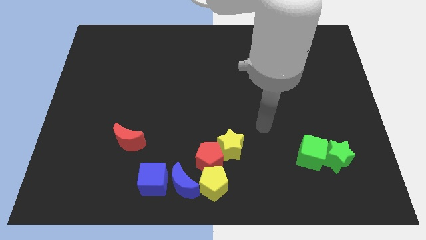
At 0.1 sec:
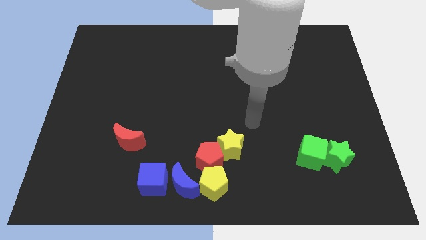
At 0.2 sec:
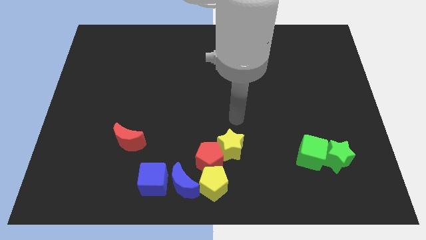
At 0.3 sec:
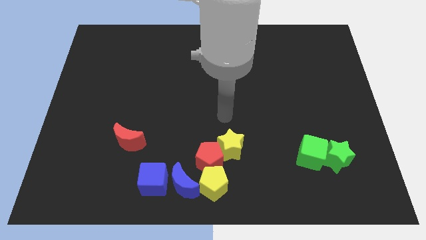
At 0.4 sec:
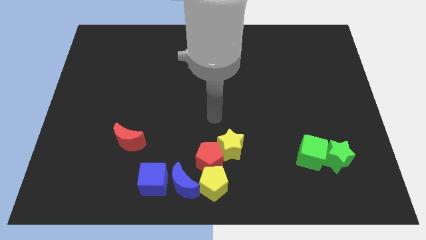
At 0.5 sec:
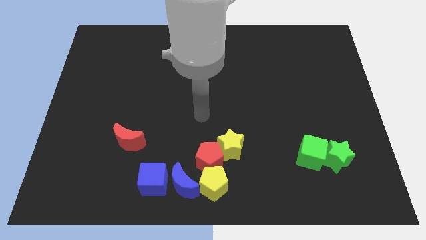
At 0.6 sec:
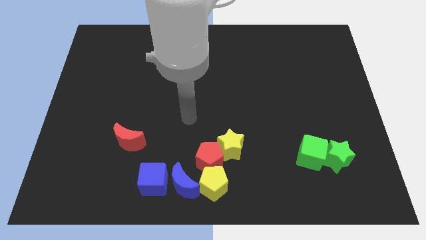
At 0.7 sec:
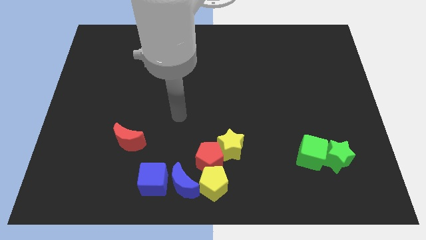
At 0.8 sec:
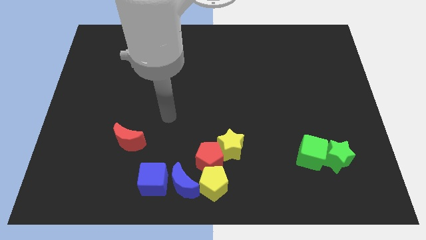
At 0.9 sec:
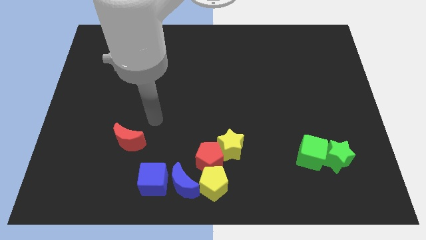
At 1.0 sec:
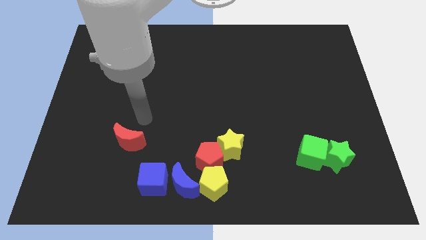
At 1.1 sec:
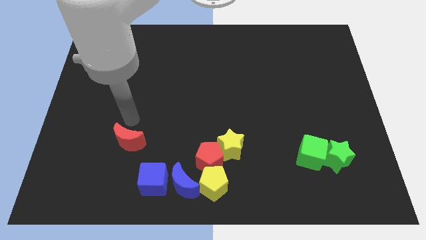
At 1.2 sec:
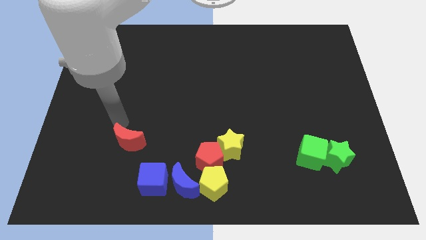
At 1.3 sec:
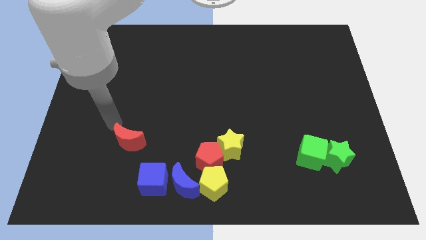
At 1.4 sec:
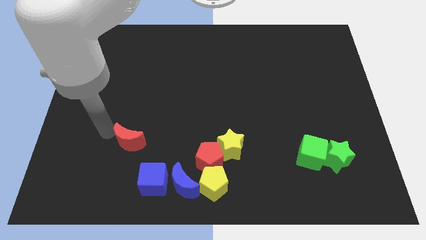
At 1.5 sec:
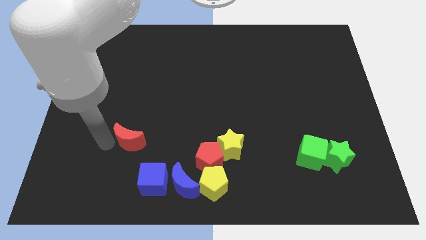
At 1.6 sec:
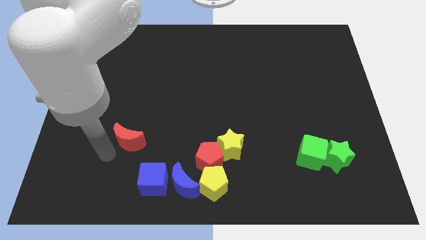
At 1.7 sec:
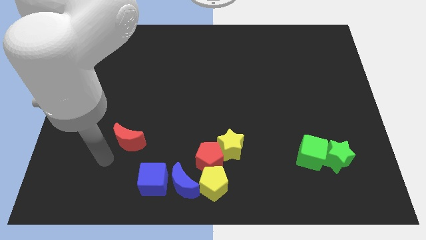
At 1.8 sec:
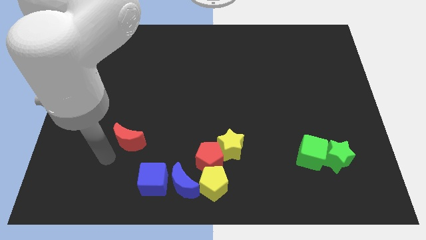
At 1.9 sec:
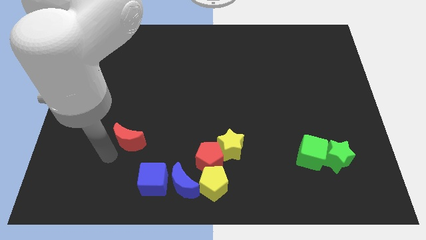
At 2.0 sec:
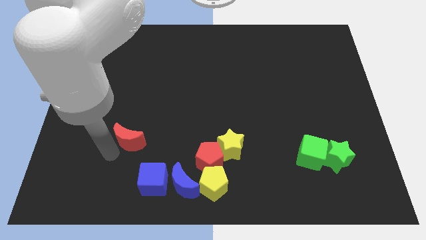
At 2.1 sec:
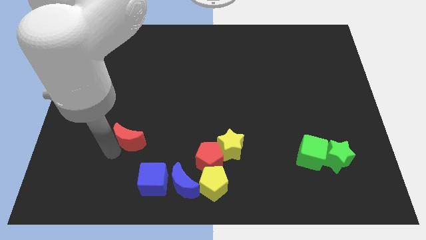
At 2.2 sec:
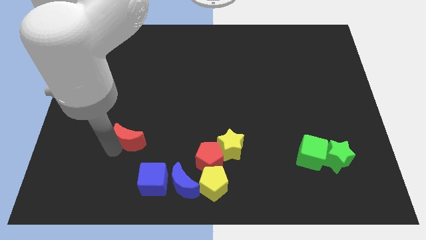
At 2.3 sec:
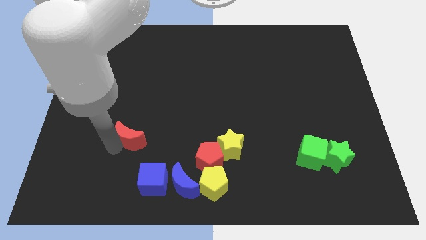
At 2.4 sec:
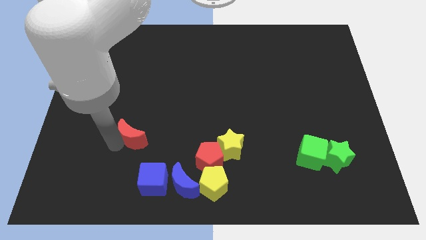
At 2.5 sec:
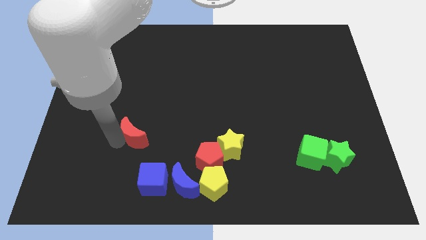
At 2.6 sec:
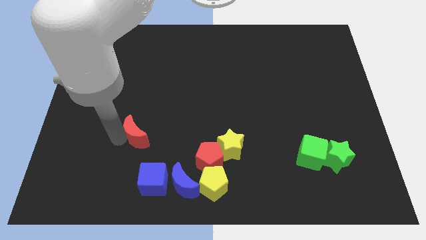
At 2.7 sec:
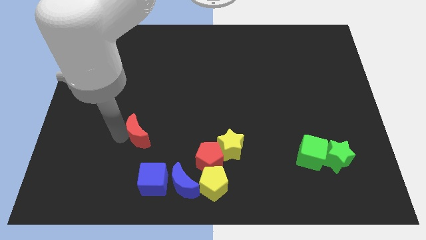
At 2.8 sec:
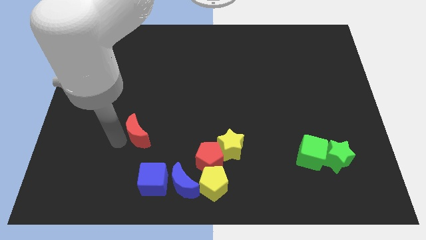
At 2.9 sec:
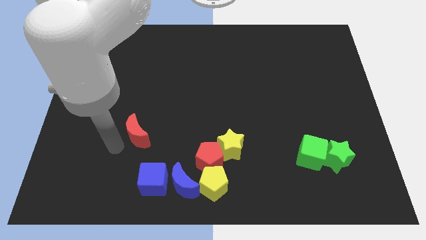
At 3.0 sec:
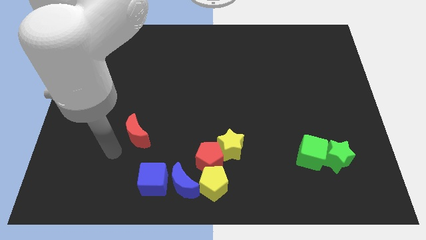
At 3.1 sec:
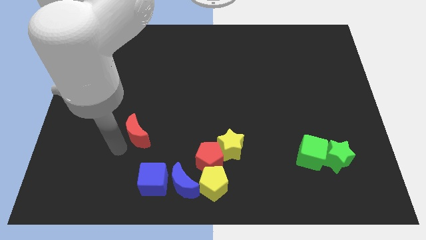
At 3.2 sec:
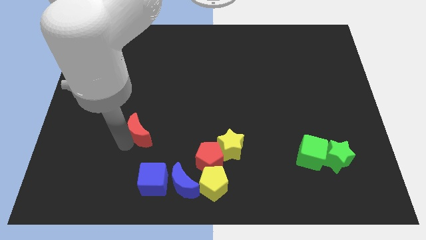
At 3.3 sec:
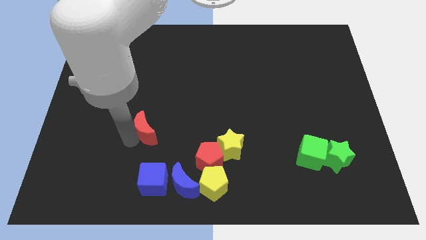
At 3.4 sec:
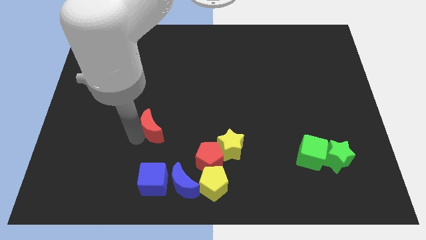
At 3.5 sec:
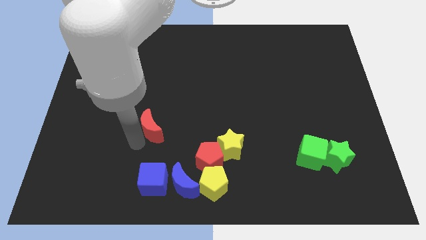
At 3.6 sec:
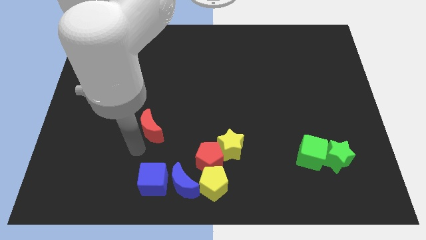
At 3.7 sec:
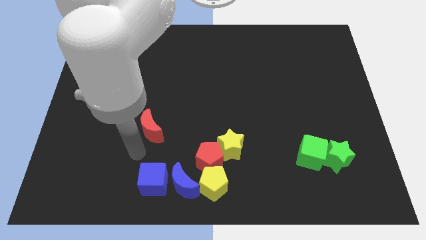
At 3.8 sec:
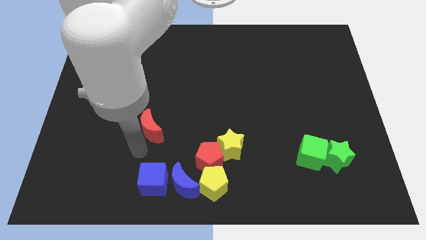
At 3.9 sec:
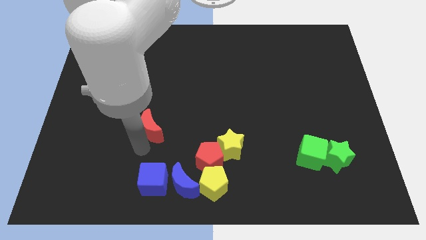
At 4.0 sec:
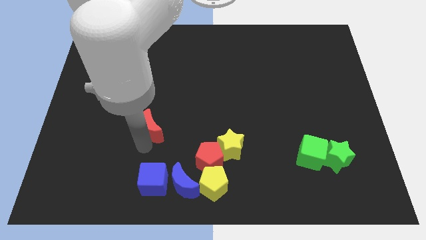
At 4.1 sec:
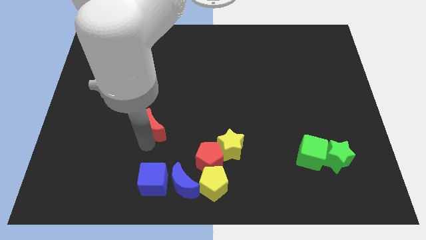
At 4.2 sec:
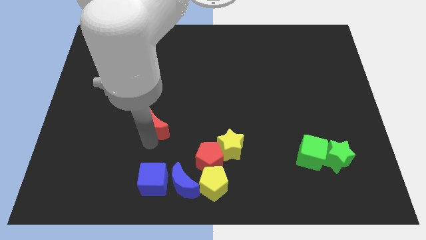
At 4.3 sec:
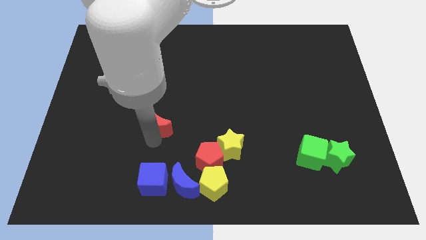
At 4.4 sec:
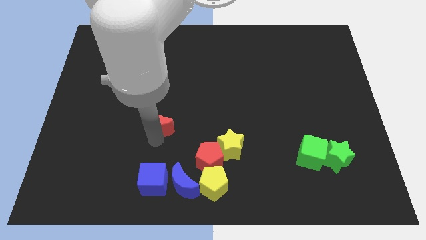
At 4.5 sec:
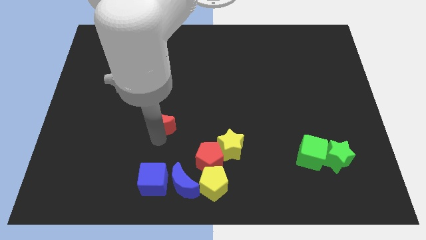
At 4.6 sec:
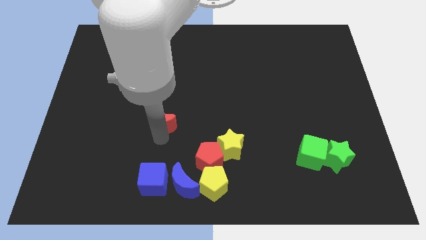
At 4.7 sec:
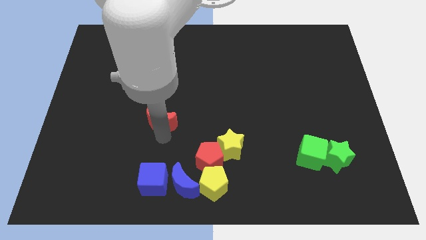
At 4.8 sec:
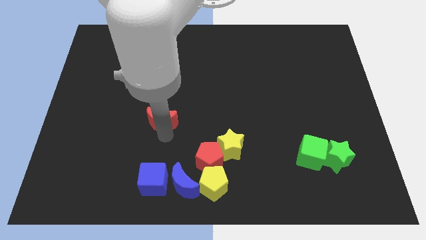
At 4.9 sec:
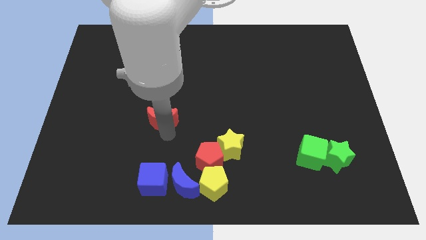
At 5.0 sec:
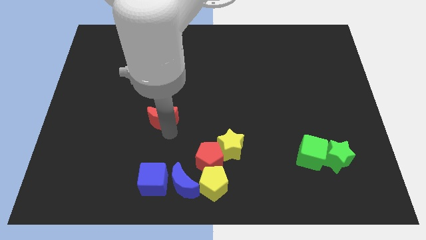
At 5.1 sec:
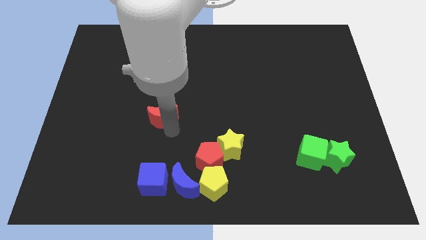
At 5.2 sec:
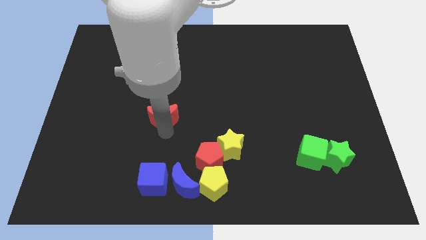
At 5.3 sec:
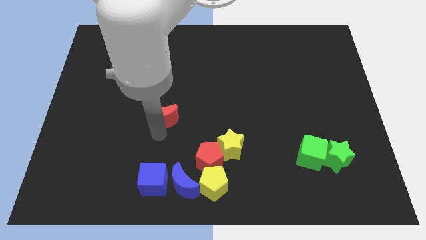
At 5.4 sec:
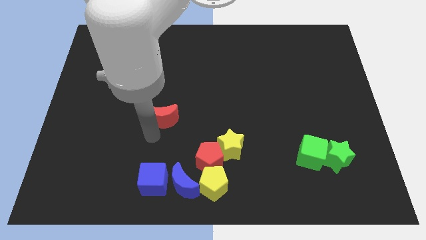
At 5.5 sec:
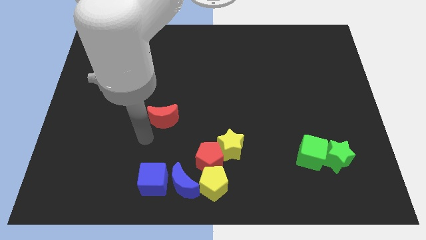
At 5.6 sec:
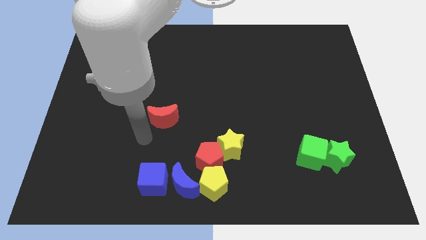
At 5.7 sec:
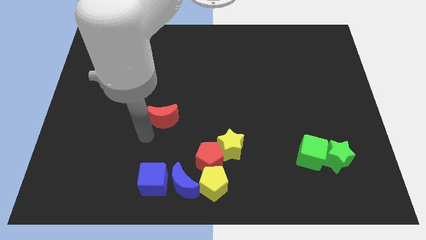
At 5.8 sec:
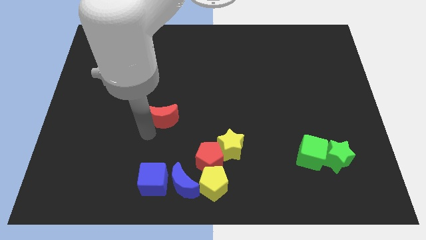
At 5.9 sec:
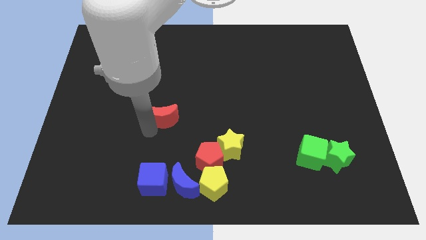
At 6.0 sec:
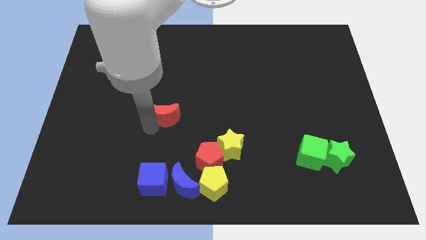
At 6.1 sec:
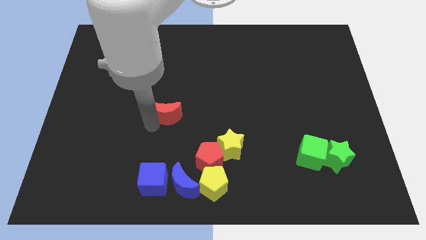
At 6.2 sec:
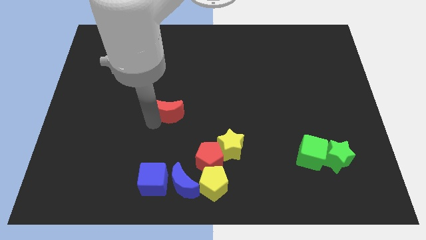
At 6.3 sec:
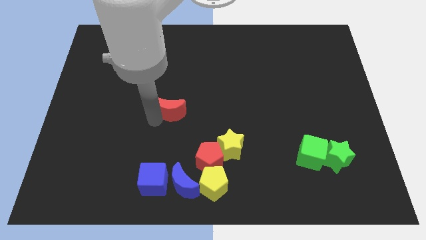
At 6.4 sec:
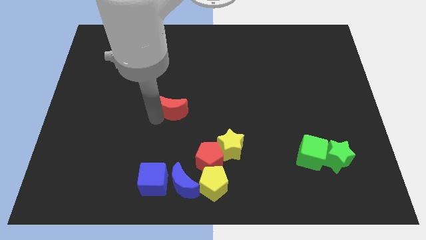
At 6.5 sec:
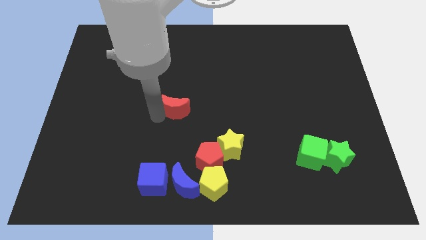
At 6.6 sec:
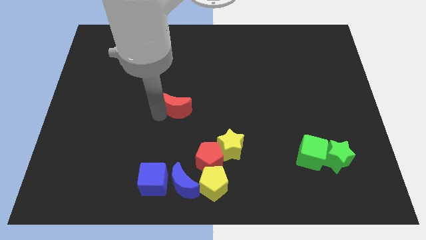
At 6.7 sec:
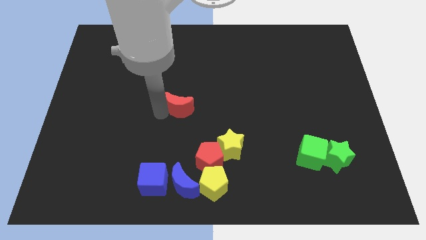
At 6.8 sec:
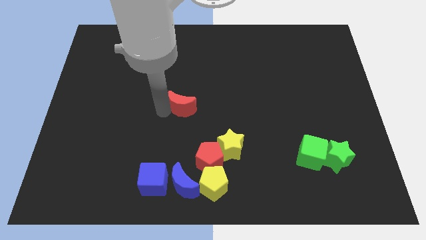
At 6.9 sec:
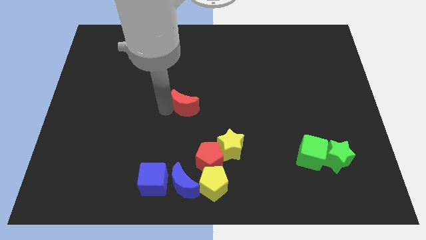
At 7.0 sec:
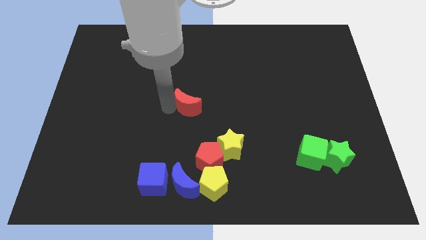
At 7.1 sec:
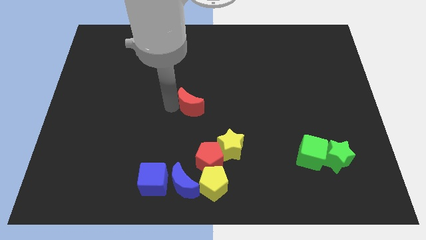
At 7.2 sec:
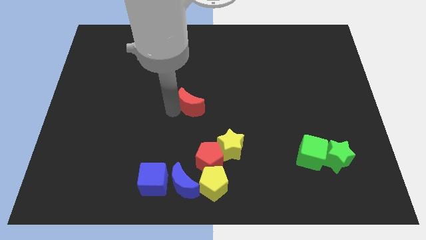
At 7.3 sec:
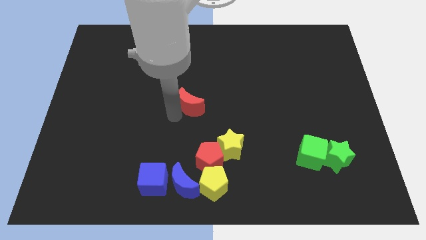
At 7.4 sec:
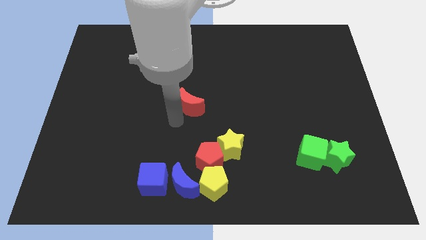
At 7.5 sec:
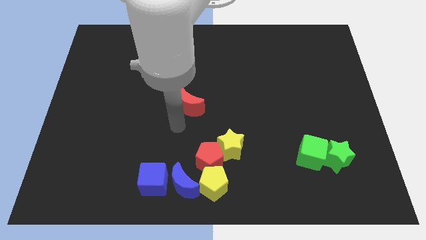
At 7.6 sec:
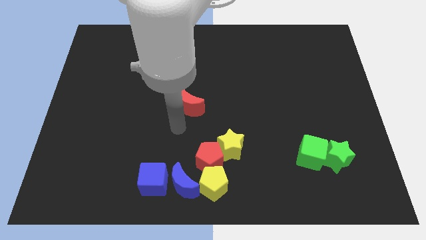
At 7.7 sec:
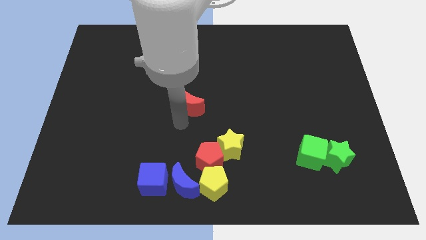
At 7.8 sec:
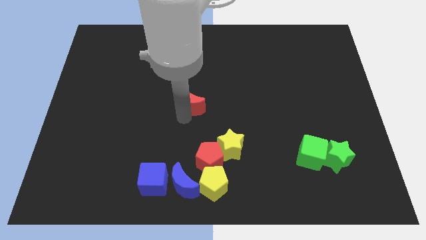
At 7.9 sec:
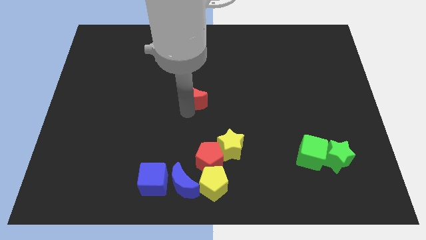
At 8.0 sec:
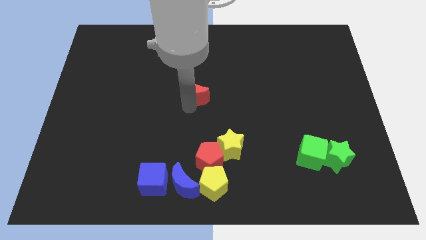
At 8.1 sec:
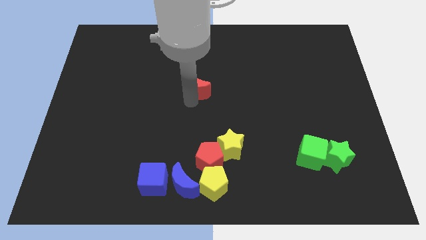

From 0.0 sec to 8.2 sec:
slide the red moon diagonally upwards and right
